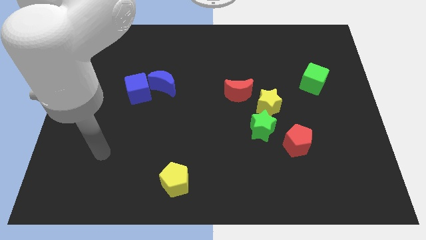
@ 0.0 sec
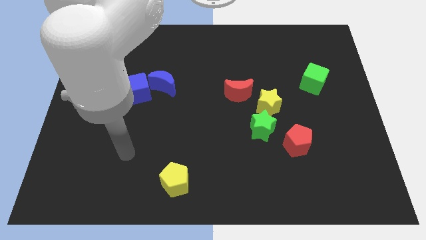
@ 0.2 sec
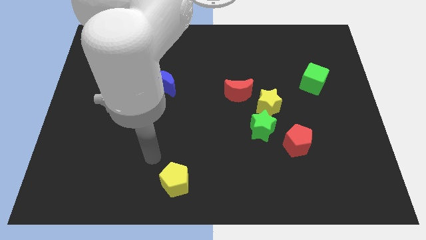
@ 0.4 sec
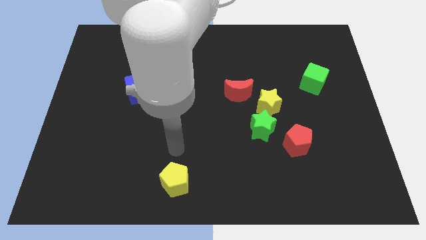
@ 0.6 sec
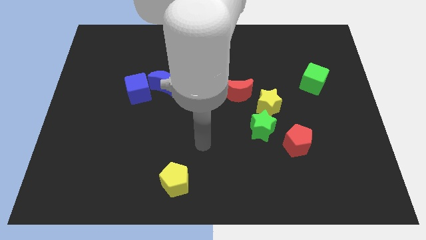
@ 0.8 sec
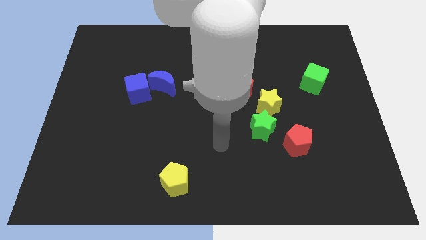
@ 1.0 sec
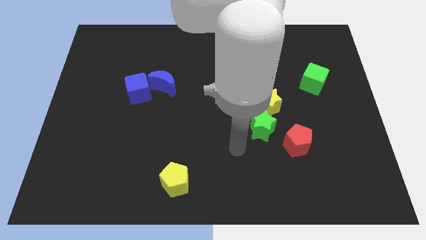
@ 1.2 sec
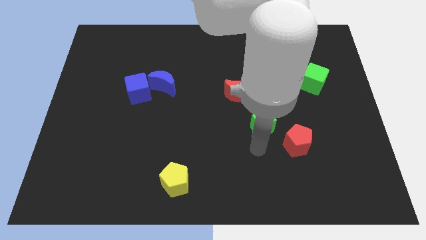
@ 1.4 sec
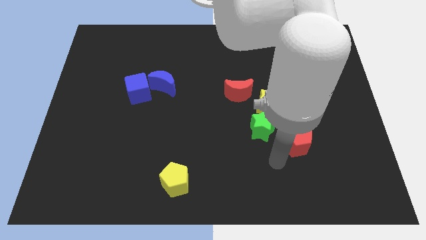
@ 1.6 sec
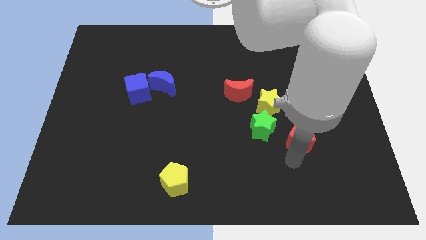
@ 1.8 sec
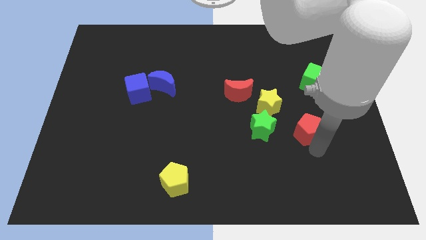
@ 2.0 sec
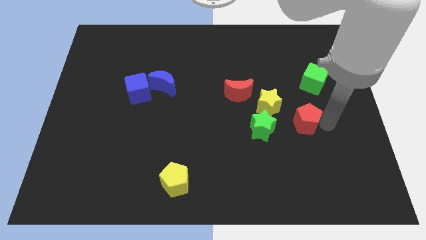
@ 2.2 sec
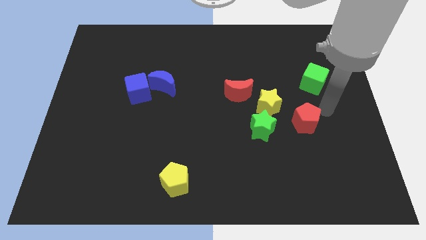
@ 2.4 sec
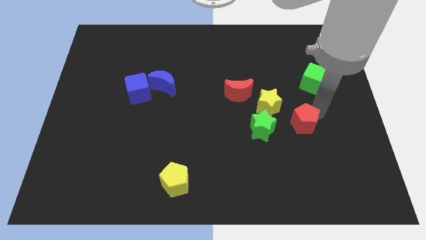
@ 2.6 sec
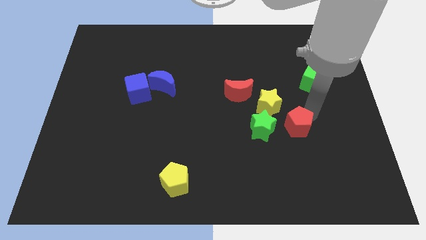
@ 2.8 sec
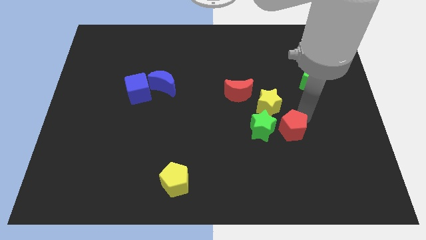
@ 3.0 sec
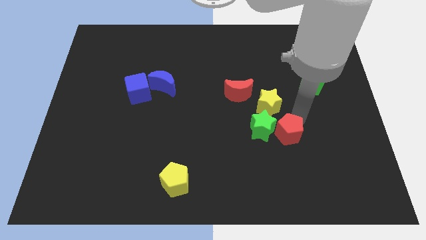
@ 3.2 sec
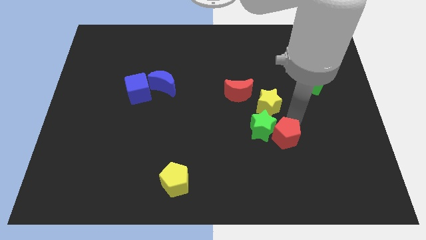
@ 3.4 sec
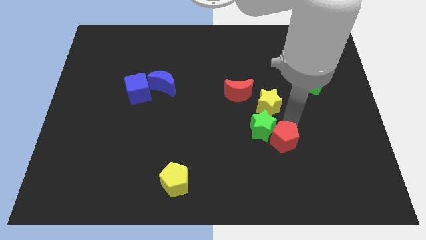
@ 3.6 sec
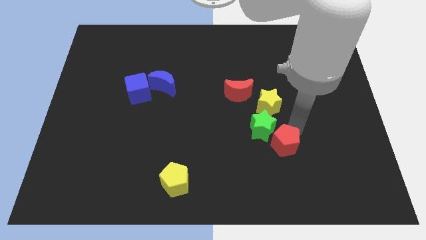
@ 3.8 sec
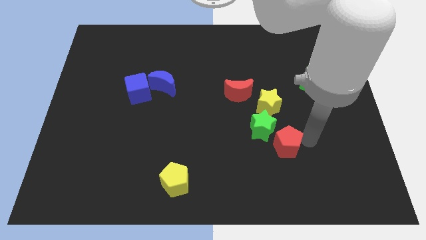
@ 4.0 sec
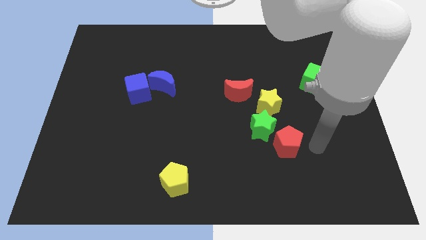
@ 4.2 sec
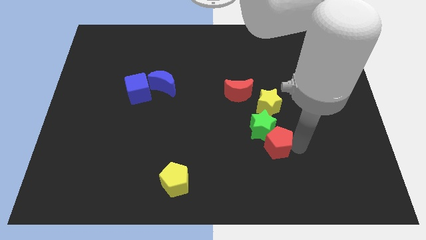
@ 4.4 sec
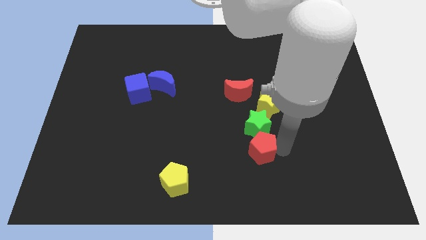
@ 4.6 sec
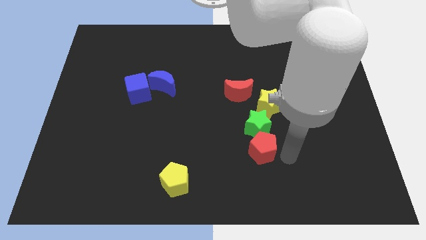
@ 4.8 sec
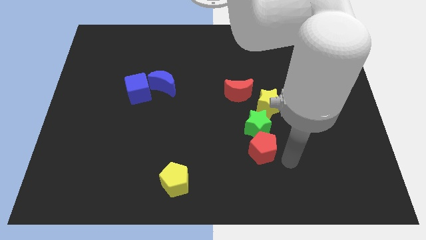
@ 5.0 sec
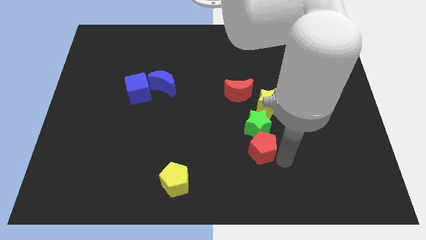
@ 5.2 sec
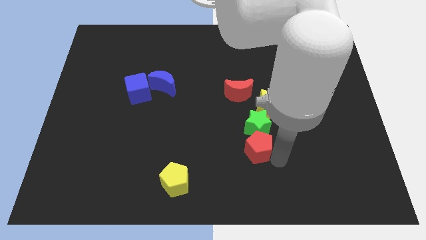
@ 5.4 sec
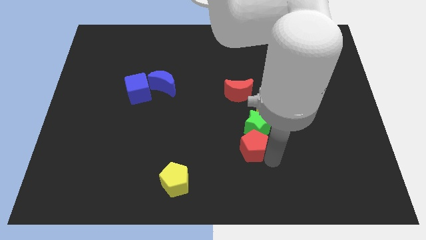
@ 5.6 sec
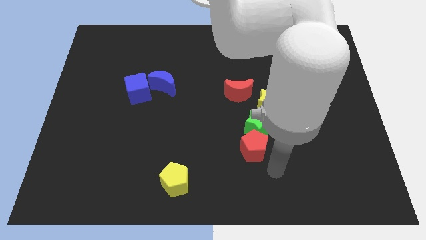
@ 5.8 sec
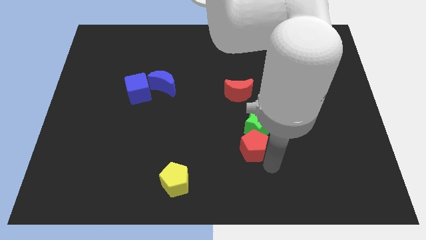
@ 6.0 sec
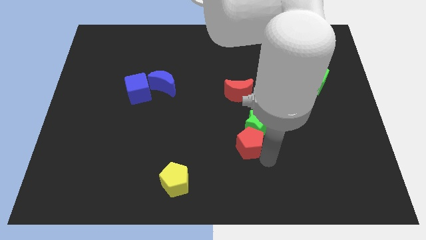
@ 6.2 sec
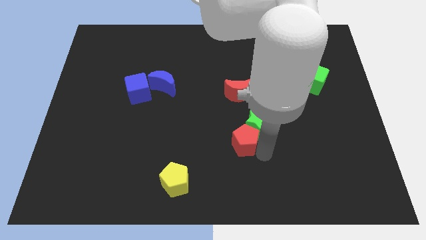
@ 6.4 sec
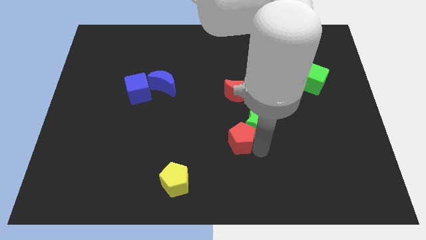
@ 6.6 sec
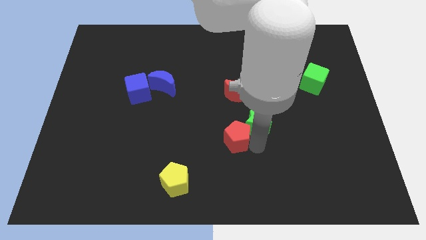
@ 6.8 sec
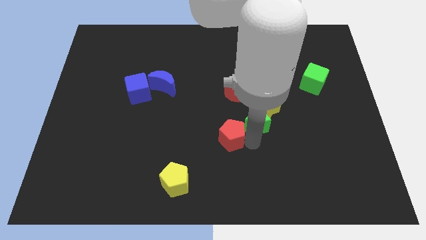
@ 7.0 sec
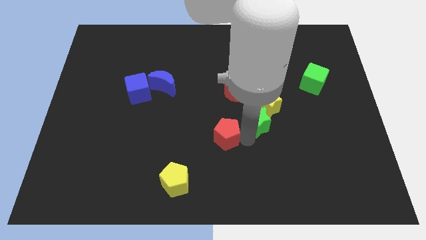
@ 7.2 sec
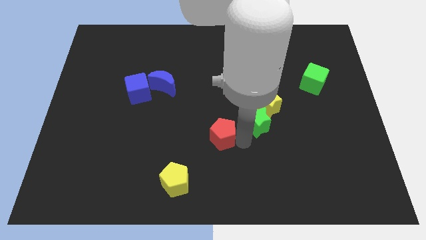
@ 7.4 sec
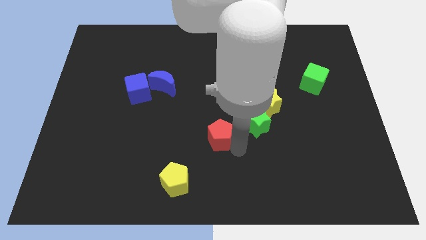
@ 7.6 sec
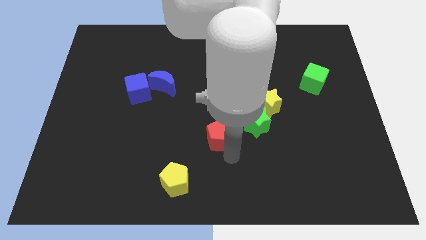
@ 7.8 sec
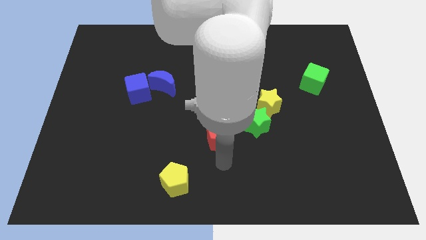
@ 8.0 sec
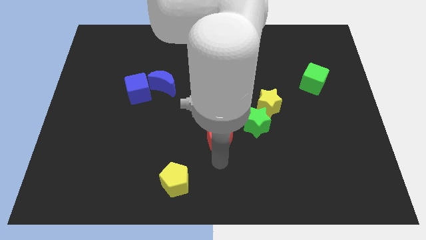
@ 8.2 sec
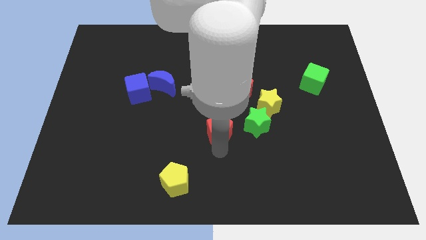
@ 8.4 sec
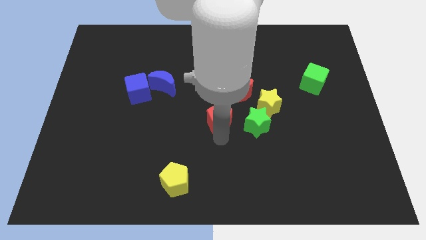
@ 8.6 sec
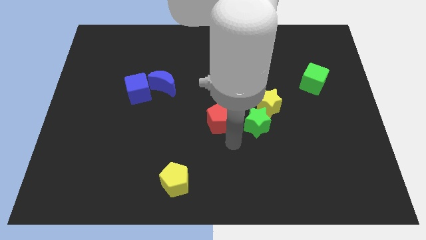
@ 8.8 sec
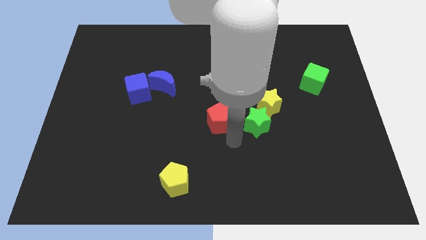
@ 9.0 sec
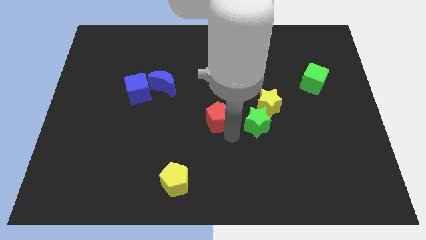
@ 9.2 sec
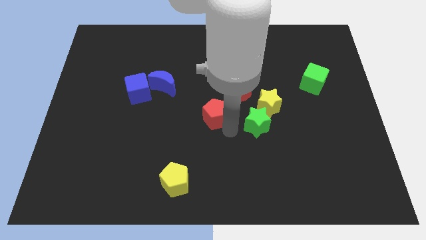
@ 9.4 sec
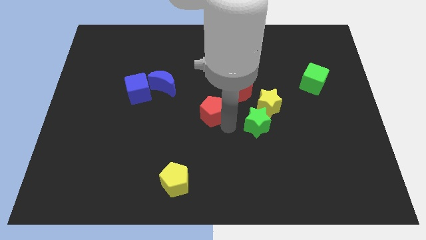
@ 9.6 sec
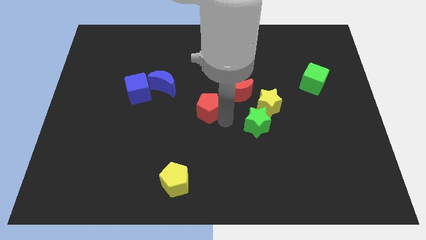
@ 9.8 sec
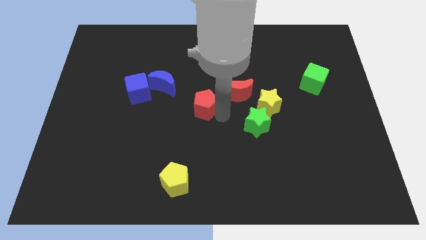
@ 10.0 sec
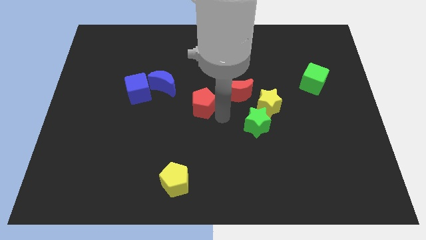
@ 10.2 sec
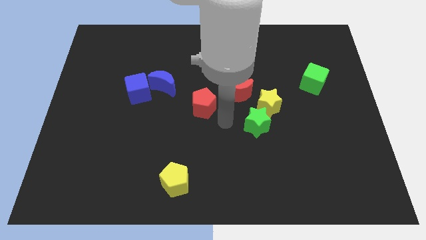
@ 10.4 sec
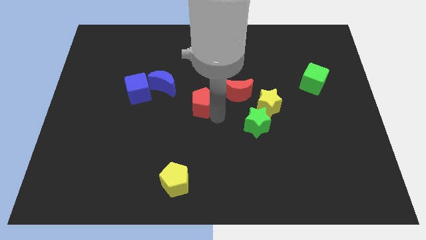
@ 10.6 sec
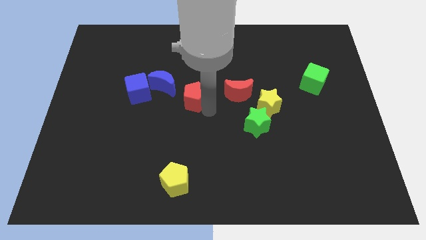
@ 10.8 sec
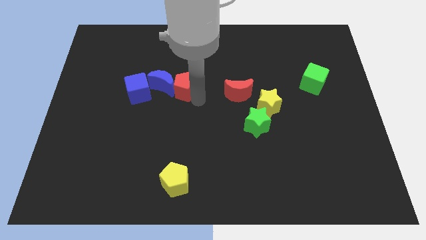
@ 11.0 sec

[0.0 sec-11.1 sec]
slide the red pentagon to the blue moon

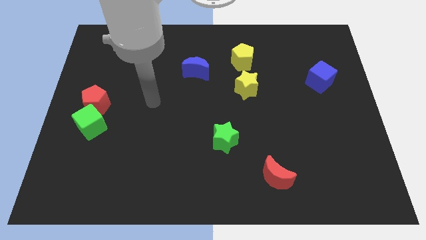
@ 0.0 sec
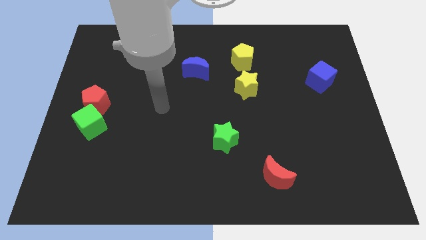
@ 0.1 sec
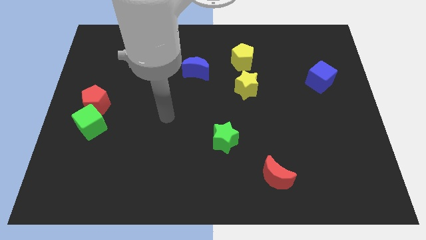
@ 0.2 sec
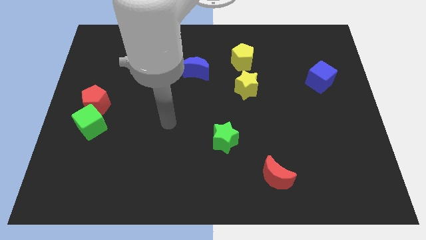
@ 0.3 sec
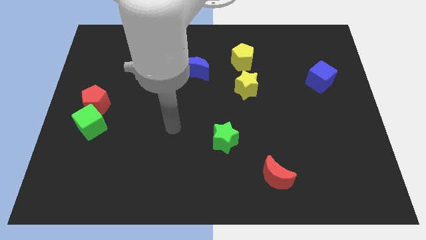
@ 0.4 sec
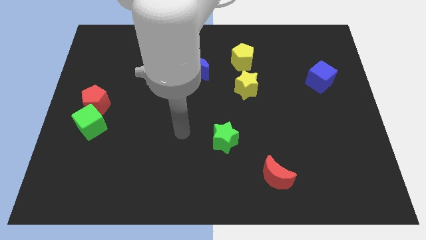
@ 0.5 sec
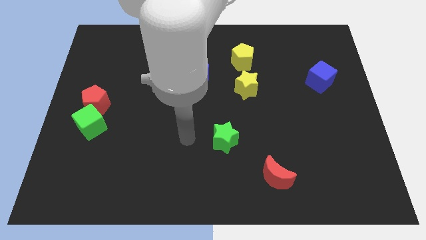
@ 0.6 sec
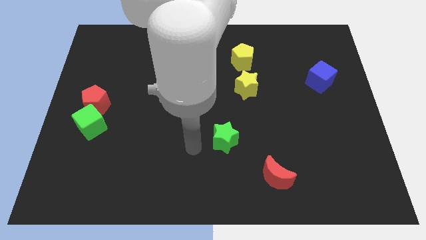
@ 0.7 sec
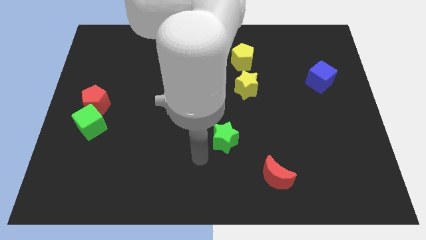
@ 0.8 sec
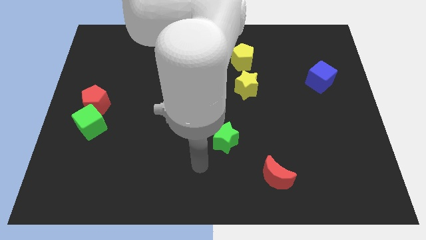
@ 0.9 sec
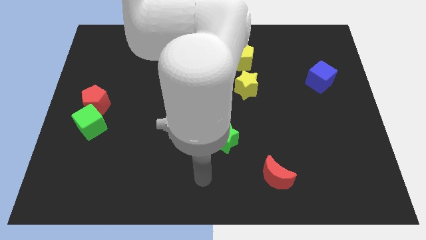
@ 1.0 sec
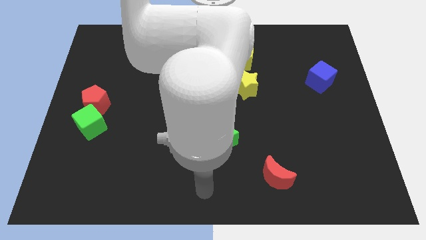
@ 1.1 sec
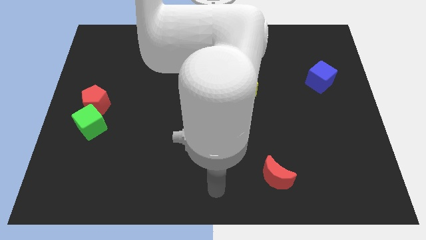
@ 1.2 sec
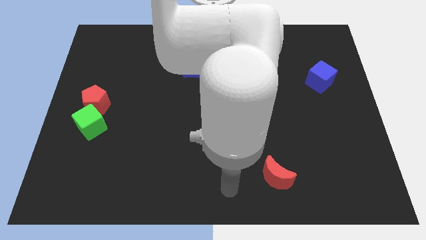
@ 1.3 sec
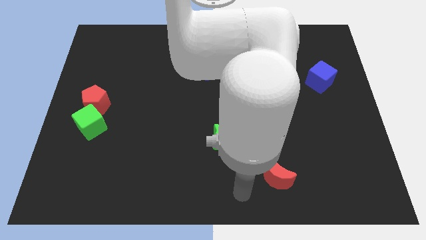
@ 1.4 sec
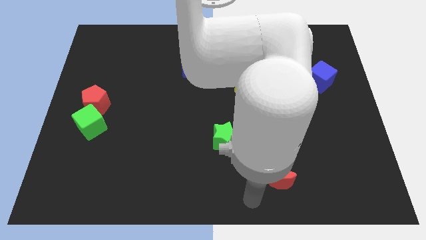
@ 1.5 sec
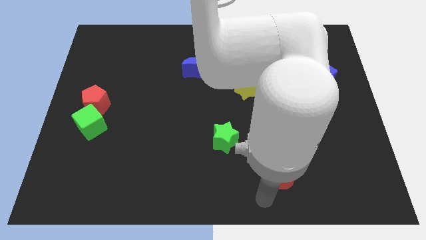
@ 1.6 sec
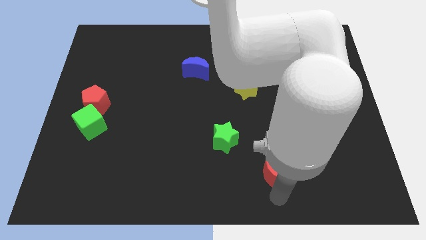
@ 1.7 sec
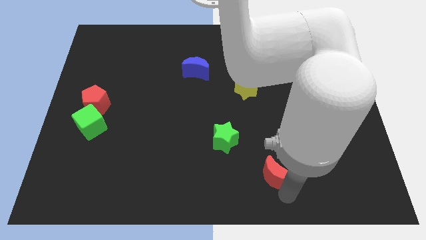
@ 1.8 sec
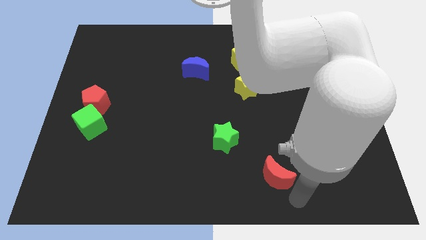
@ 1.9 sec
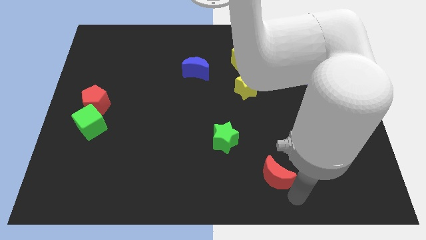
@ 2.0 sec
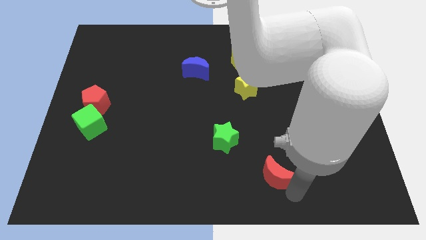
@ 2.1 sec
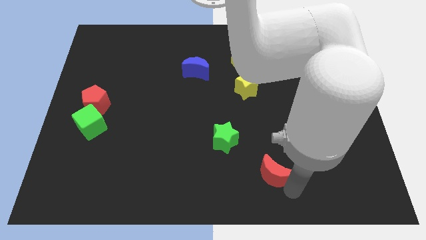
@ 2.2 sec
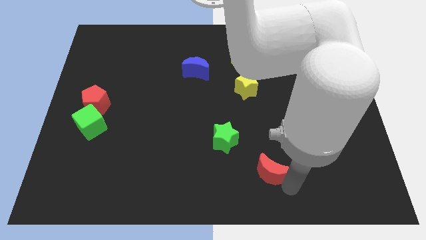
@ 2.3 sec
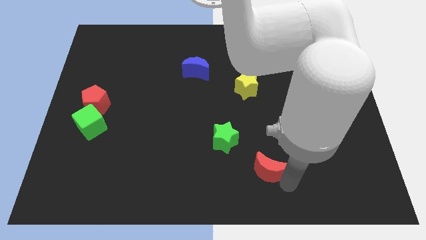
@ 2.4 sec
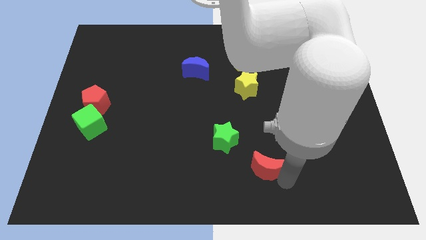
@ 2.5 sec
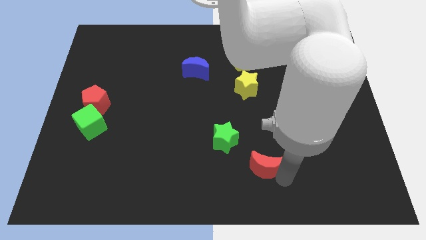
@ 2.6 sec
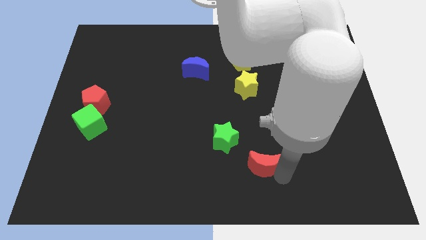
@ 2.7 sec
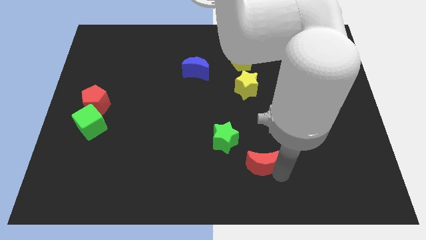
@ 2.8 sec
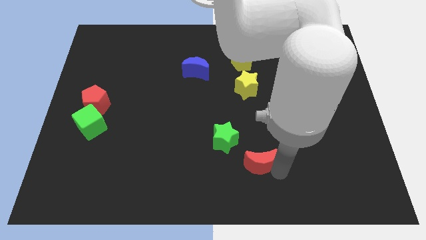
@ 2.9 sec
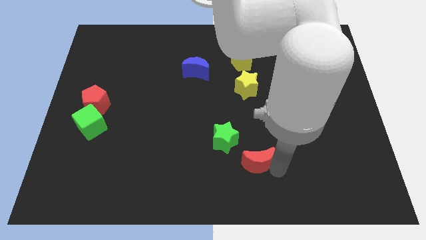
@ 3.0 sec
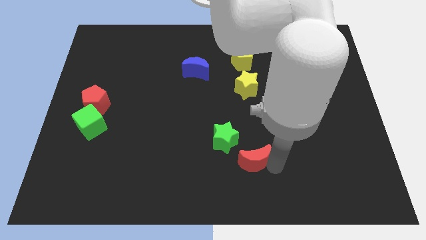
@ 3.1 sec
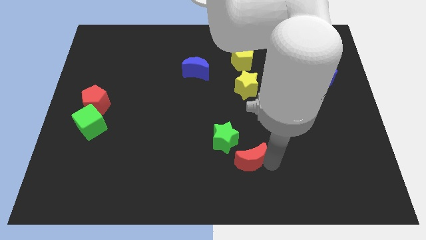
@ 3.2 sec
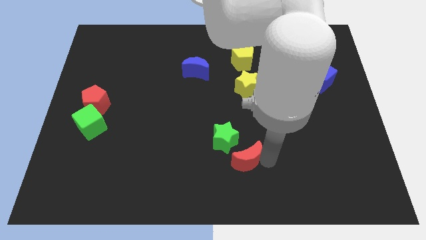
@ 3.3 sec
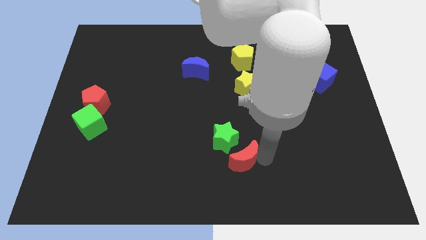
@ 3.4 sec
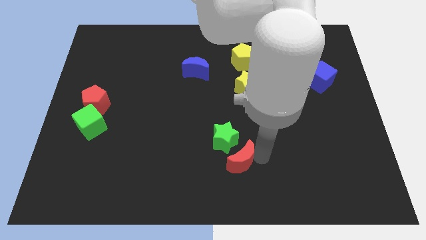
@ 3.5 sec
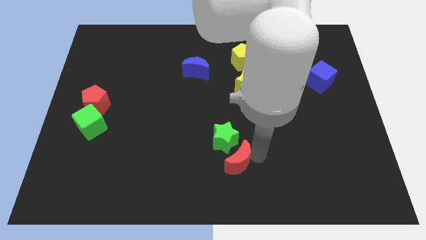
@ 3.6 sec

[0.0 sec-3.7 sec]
move the red moon towards the green star
